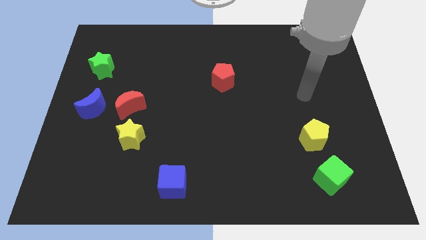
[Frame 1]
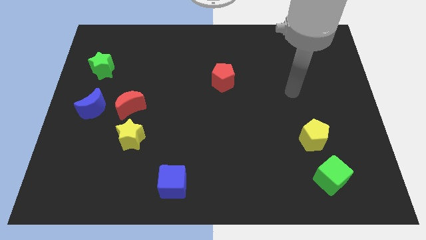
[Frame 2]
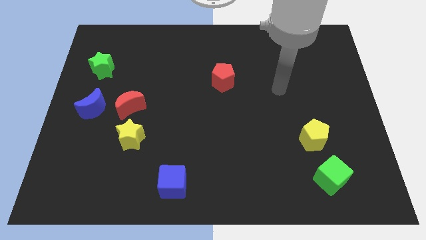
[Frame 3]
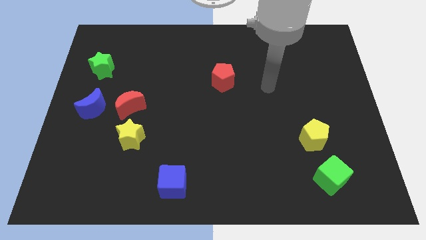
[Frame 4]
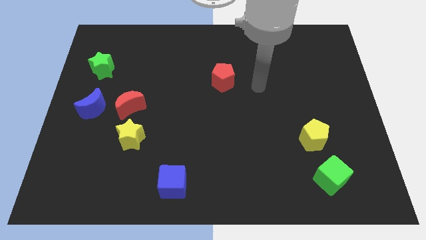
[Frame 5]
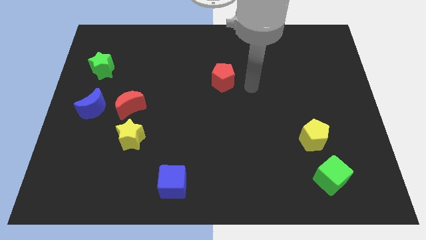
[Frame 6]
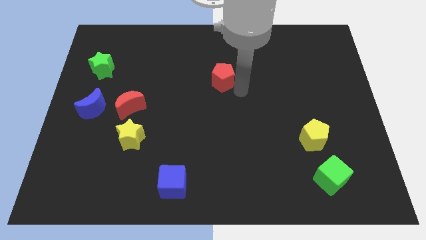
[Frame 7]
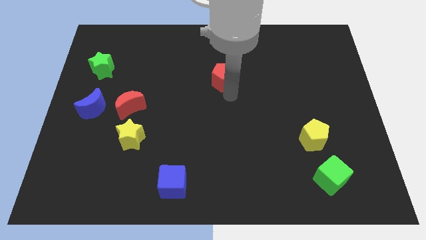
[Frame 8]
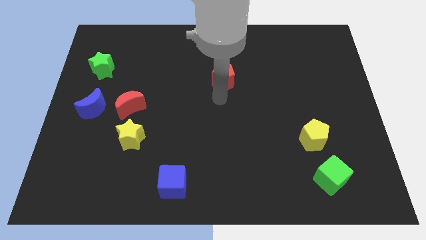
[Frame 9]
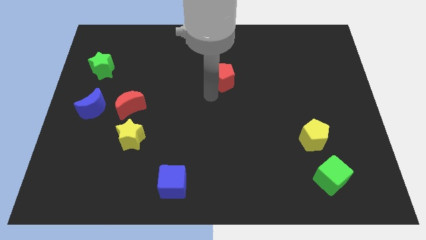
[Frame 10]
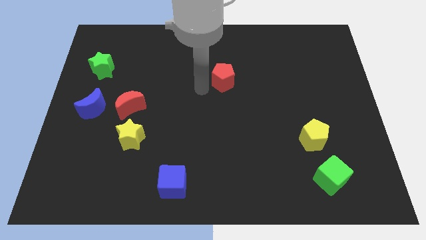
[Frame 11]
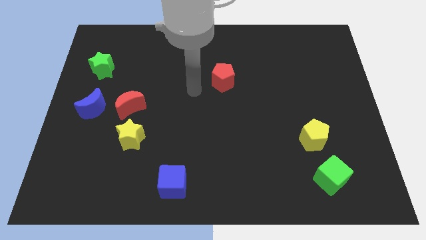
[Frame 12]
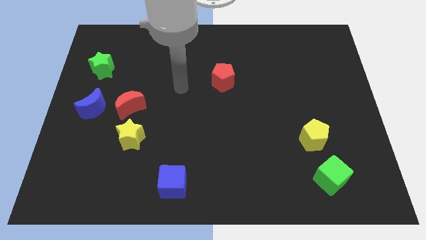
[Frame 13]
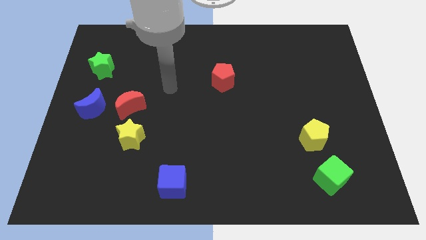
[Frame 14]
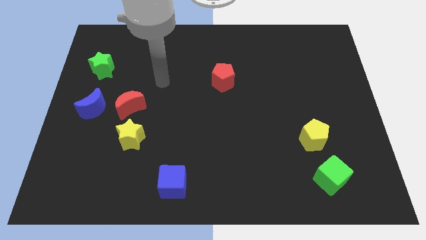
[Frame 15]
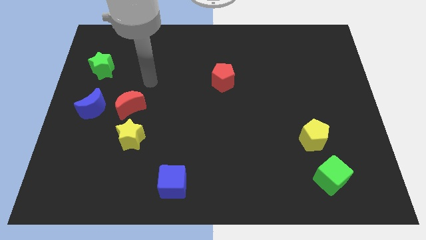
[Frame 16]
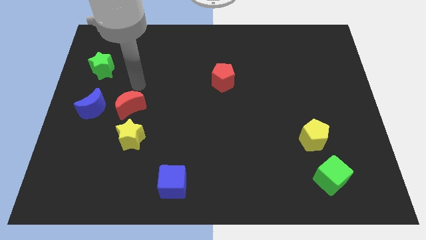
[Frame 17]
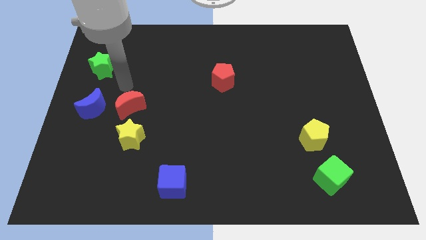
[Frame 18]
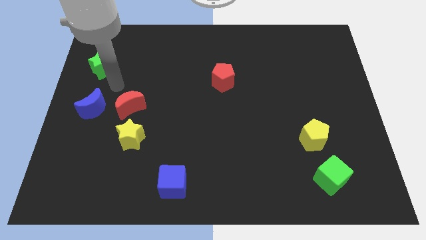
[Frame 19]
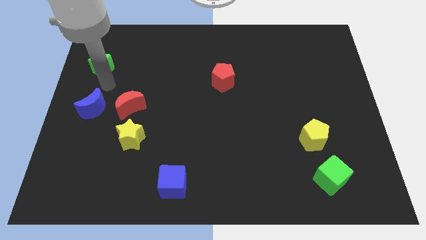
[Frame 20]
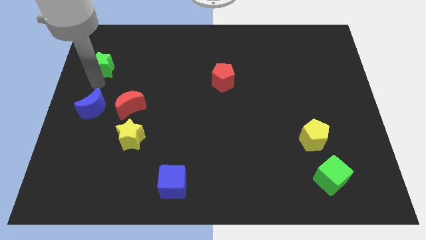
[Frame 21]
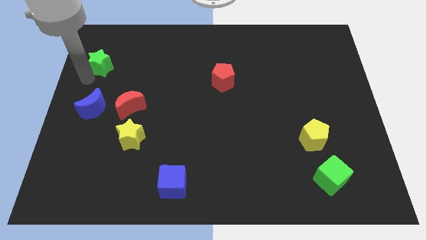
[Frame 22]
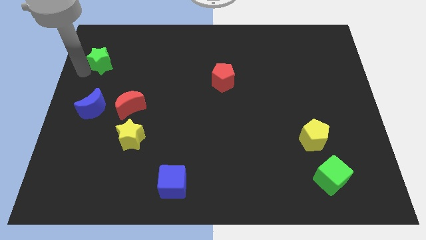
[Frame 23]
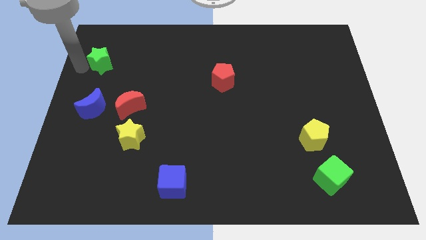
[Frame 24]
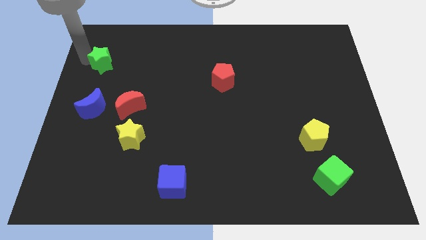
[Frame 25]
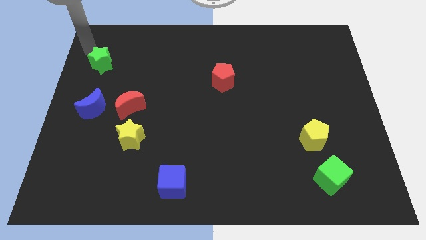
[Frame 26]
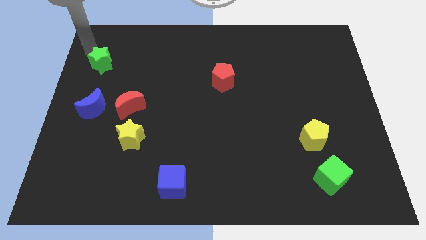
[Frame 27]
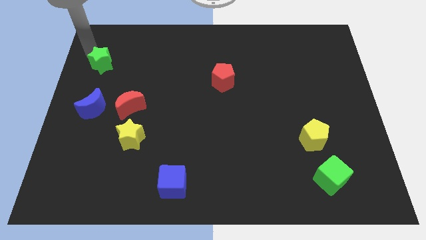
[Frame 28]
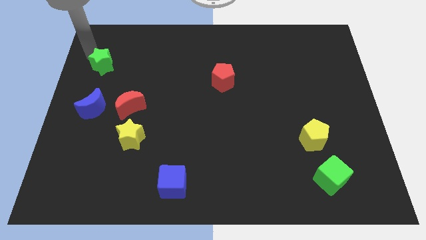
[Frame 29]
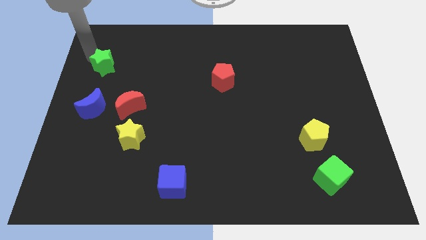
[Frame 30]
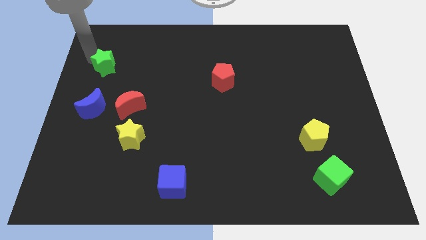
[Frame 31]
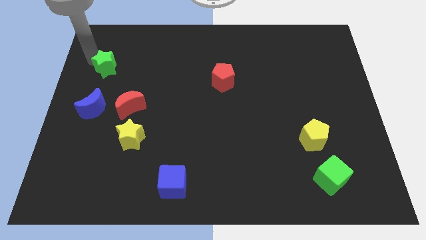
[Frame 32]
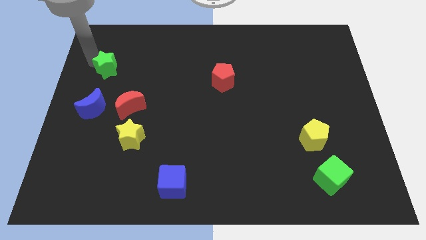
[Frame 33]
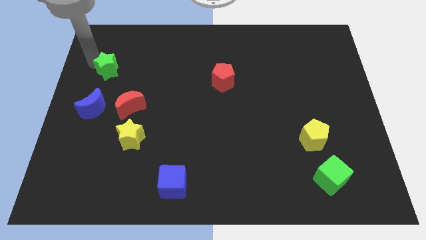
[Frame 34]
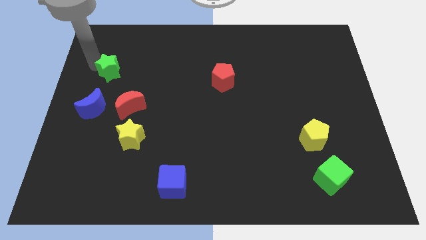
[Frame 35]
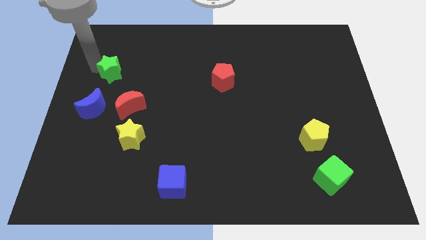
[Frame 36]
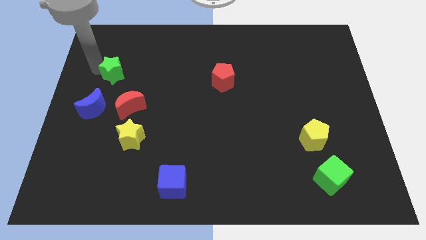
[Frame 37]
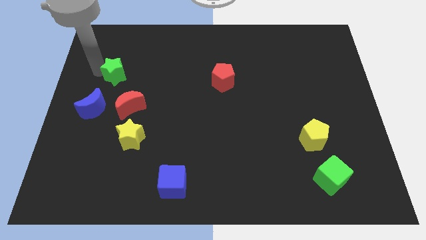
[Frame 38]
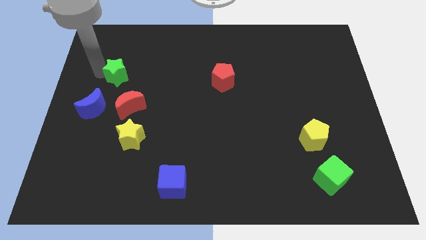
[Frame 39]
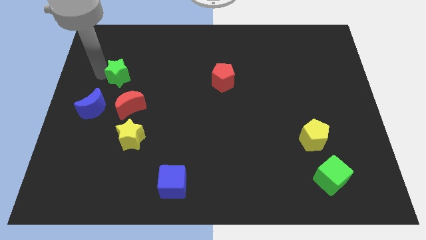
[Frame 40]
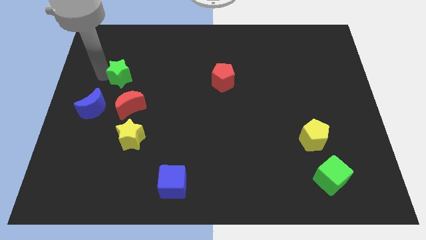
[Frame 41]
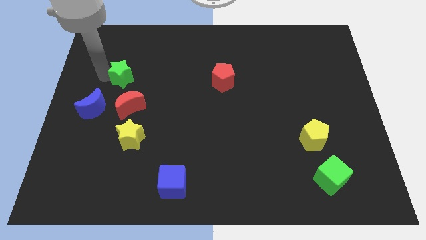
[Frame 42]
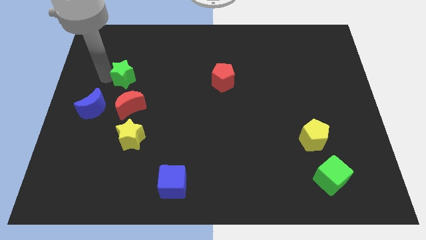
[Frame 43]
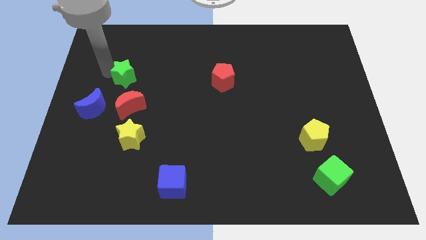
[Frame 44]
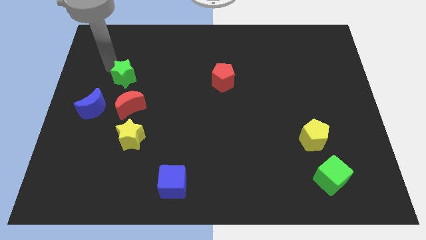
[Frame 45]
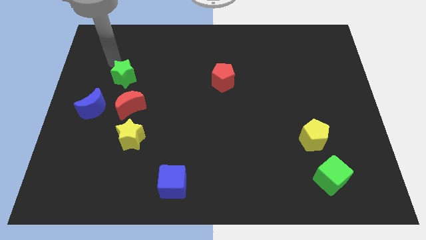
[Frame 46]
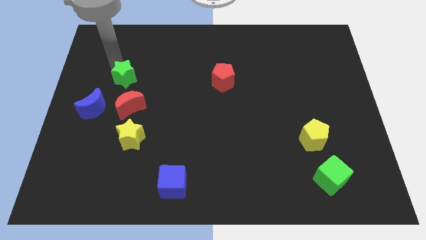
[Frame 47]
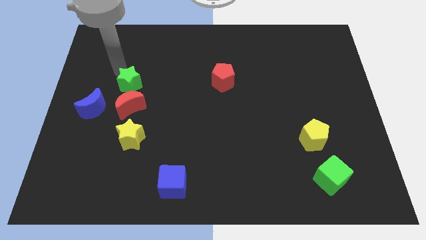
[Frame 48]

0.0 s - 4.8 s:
put the green star above the yellow star

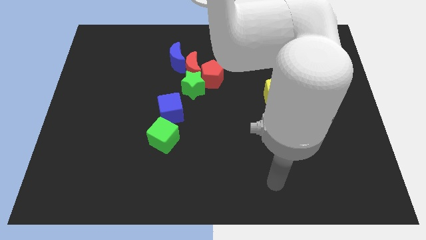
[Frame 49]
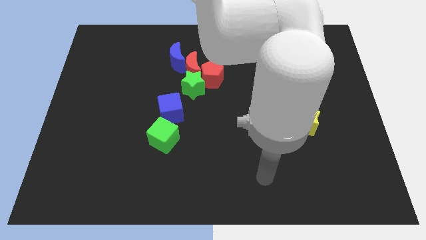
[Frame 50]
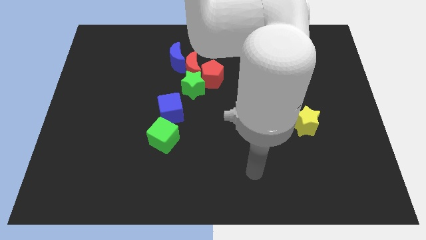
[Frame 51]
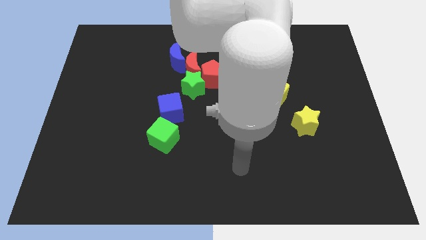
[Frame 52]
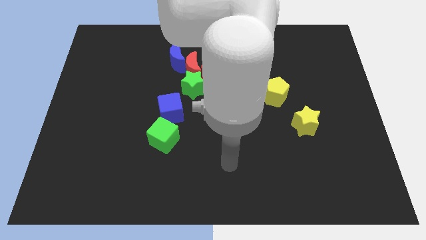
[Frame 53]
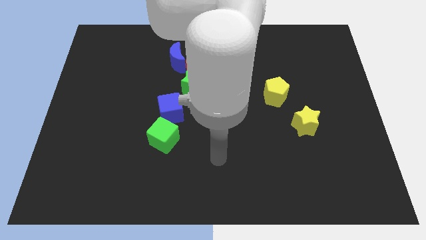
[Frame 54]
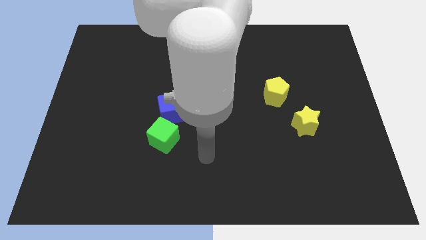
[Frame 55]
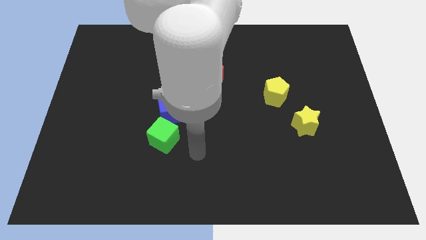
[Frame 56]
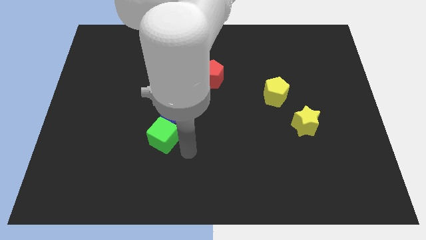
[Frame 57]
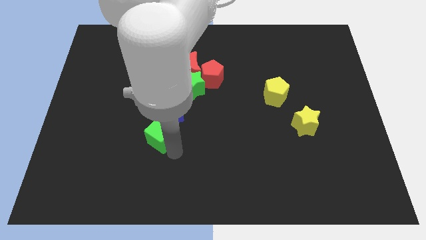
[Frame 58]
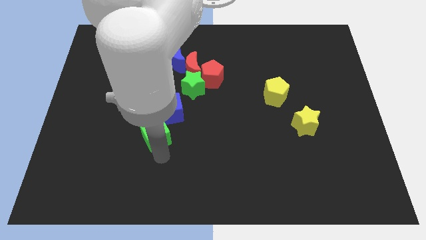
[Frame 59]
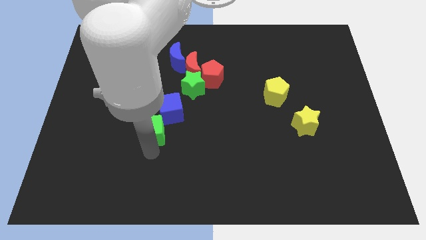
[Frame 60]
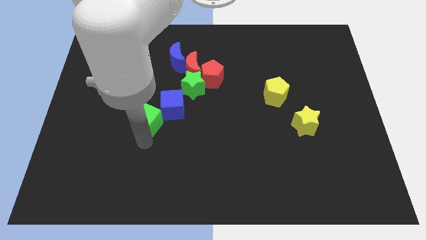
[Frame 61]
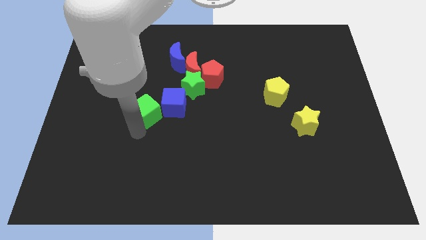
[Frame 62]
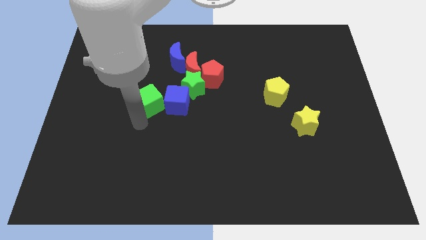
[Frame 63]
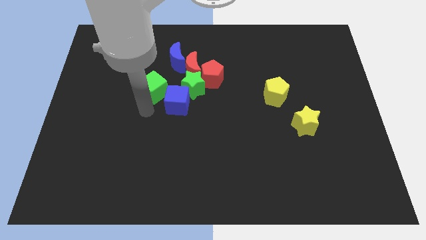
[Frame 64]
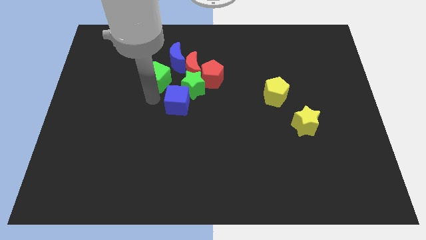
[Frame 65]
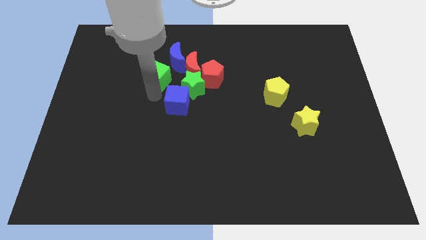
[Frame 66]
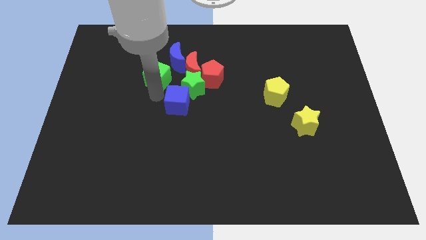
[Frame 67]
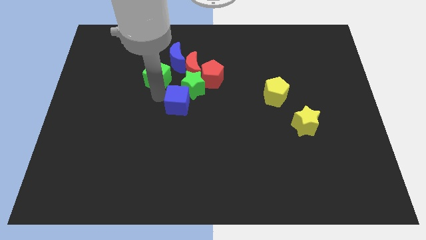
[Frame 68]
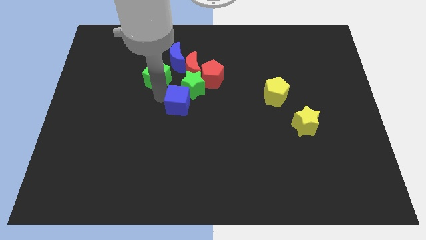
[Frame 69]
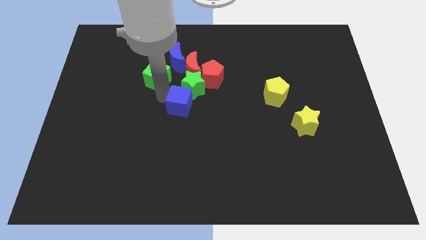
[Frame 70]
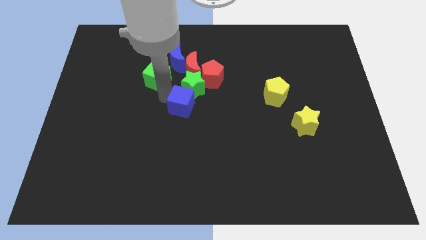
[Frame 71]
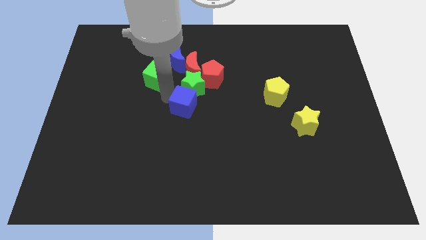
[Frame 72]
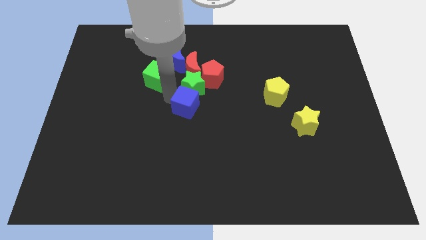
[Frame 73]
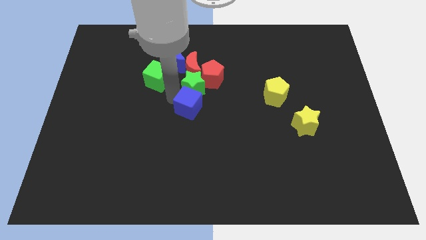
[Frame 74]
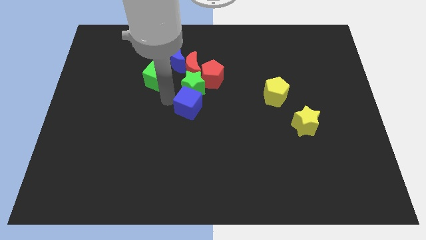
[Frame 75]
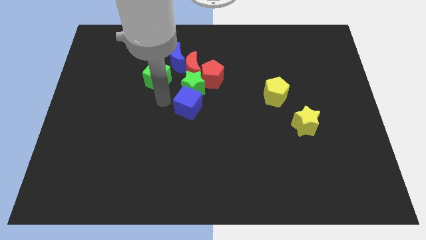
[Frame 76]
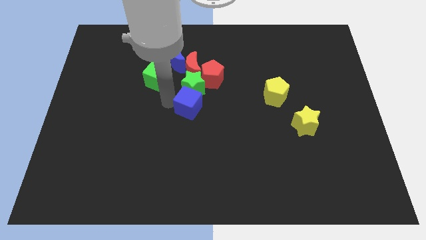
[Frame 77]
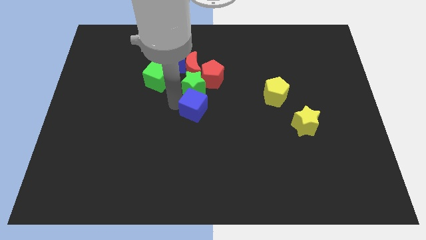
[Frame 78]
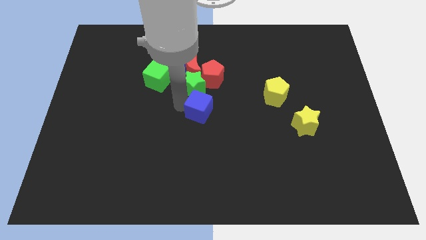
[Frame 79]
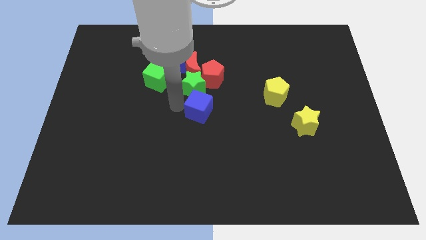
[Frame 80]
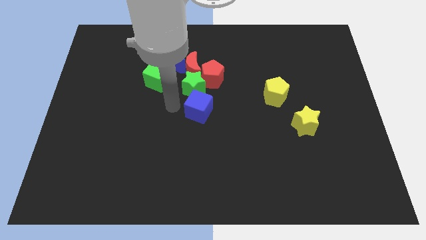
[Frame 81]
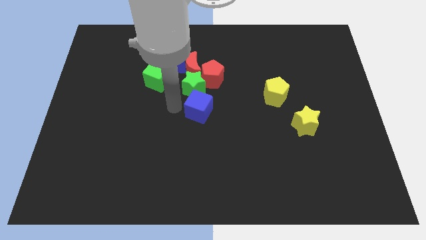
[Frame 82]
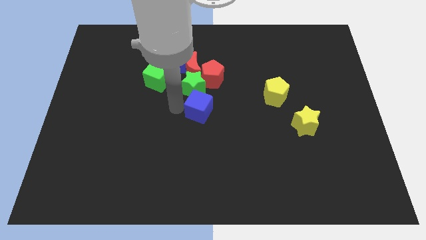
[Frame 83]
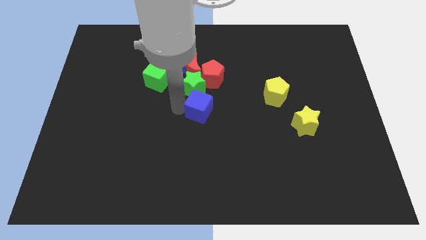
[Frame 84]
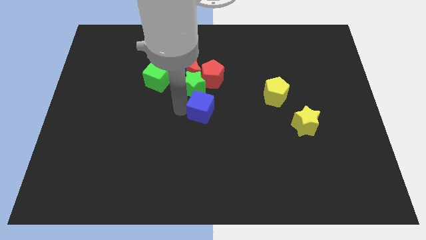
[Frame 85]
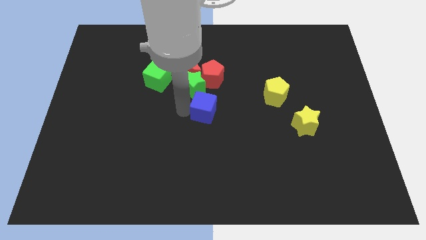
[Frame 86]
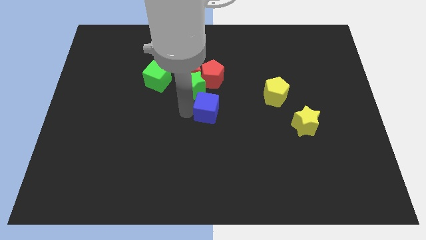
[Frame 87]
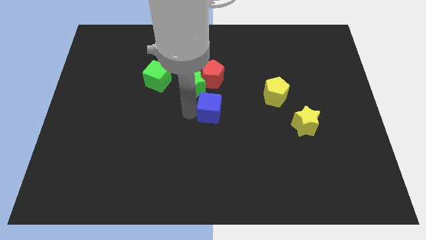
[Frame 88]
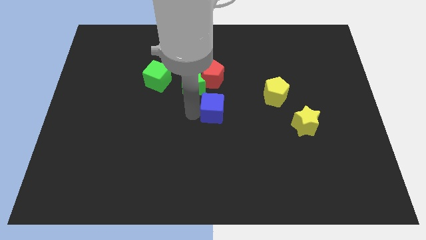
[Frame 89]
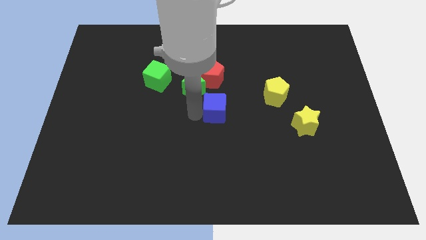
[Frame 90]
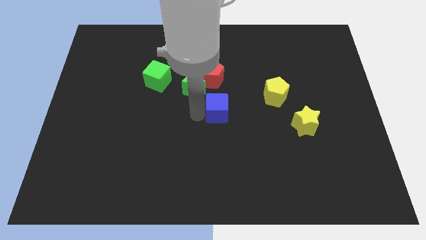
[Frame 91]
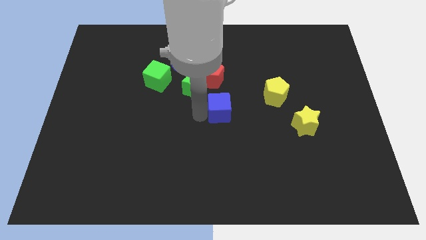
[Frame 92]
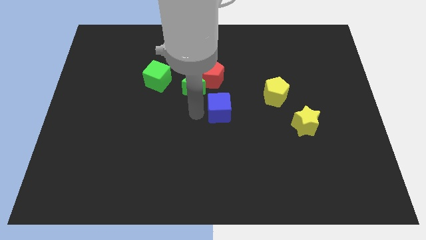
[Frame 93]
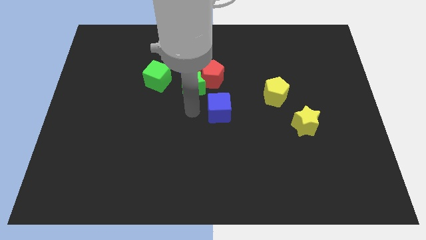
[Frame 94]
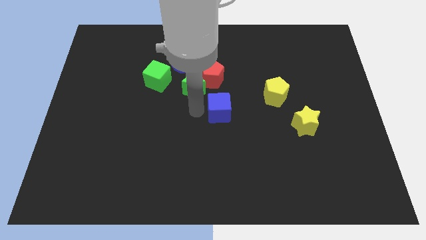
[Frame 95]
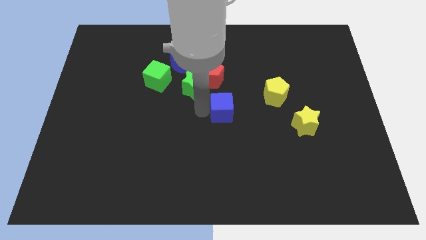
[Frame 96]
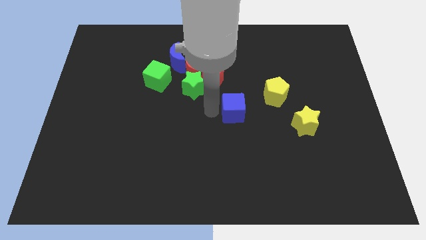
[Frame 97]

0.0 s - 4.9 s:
move the blue cube to the bottom left of the yellow pentagon
